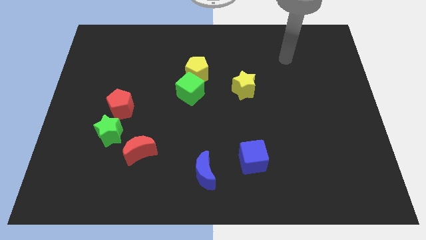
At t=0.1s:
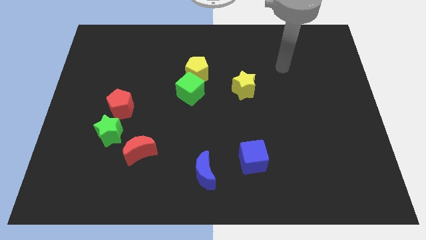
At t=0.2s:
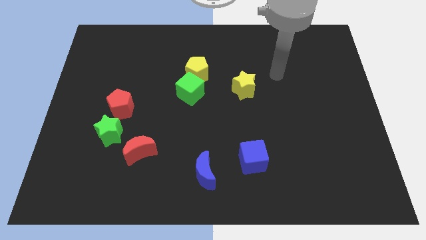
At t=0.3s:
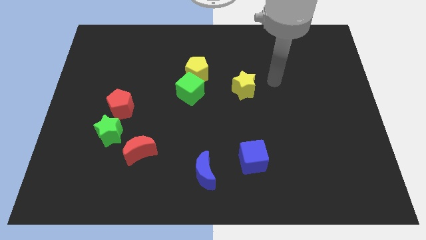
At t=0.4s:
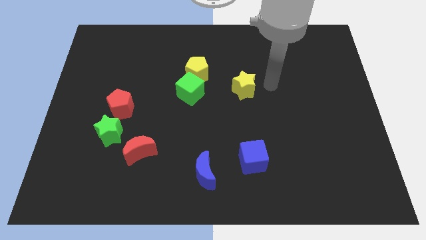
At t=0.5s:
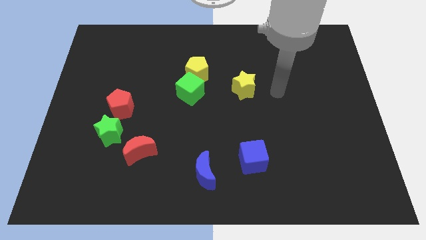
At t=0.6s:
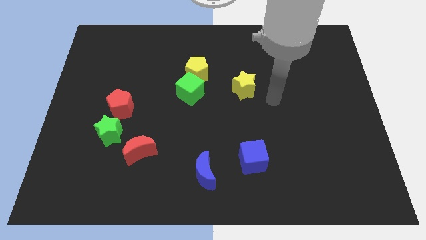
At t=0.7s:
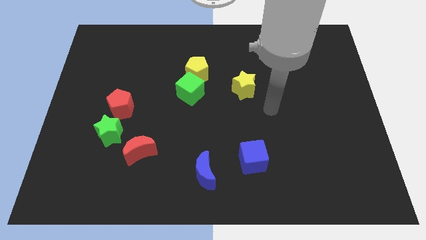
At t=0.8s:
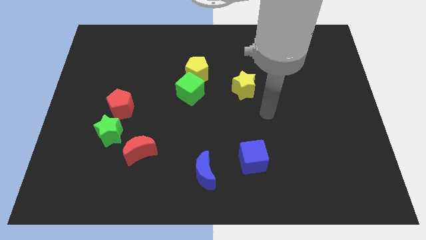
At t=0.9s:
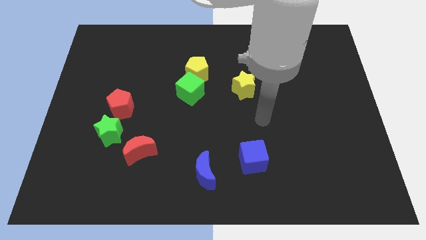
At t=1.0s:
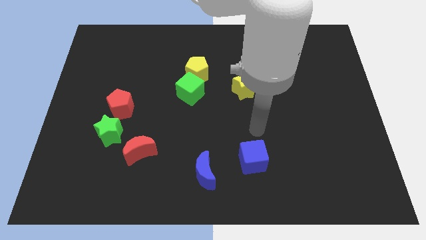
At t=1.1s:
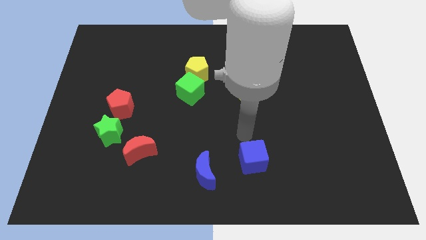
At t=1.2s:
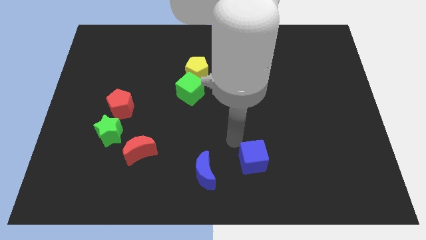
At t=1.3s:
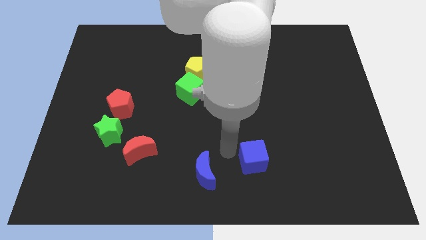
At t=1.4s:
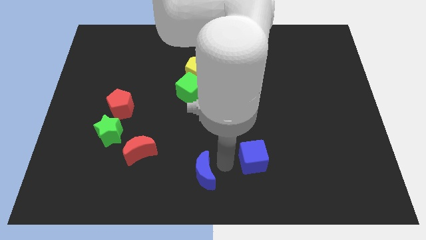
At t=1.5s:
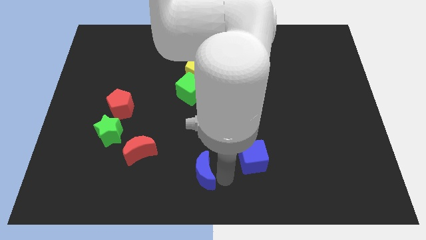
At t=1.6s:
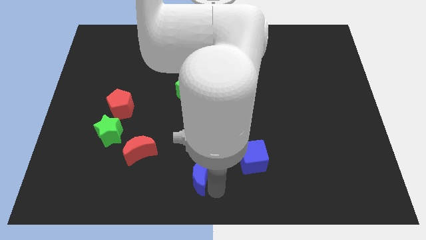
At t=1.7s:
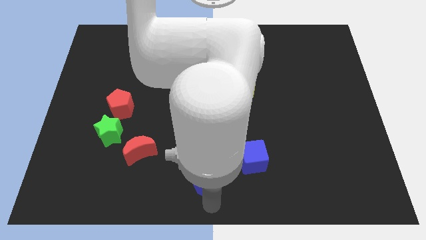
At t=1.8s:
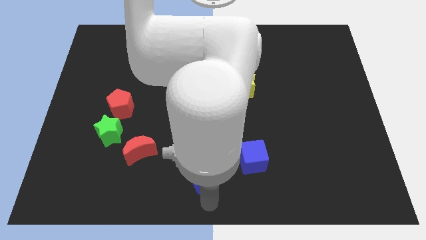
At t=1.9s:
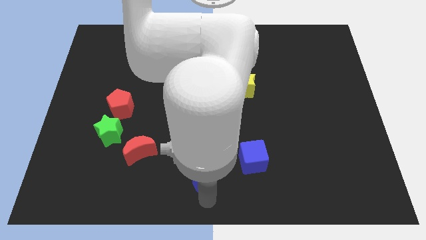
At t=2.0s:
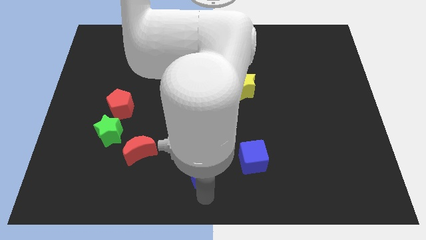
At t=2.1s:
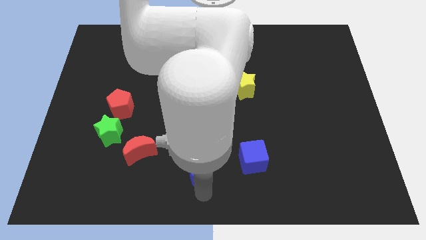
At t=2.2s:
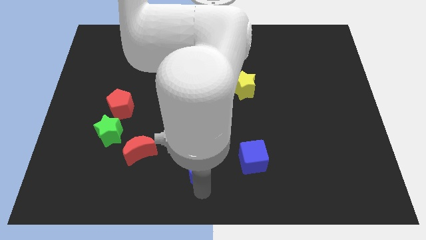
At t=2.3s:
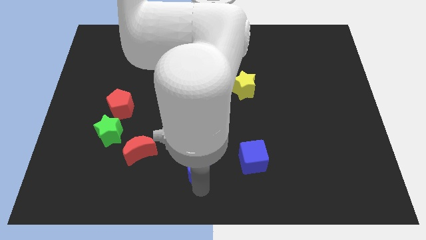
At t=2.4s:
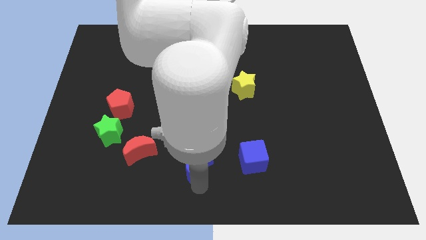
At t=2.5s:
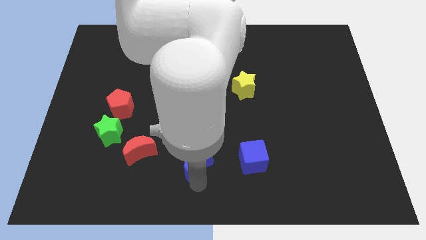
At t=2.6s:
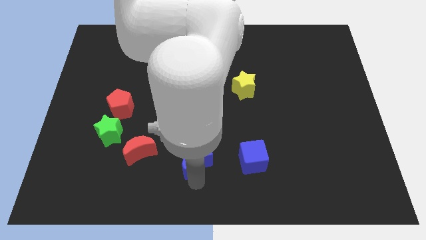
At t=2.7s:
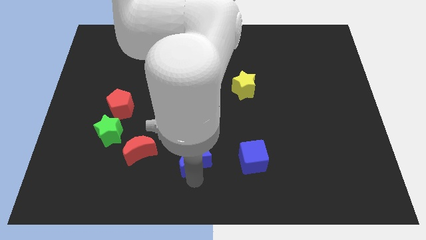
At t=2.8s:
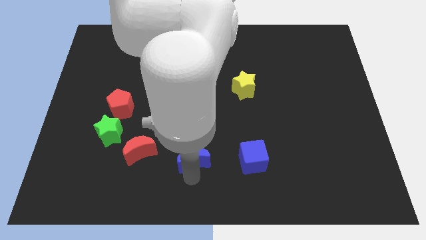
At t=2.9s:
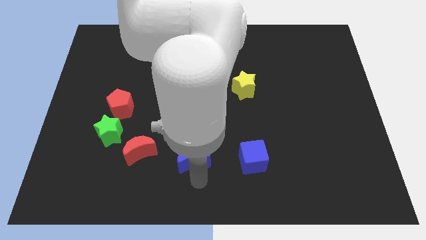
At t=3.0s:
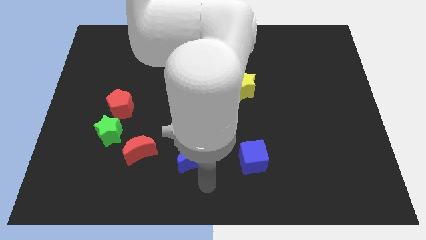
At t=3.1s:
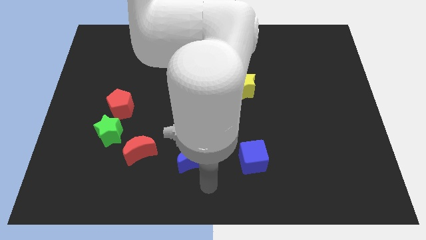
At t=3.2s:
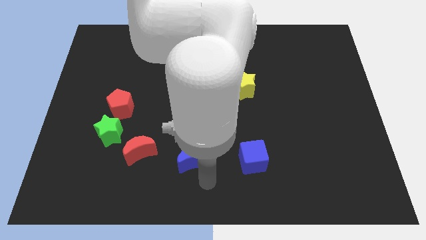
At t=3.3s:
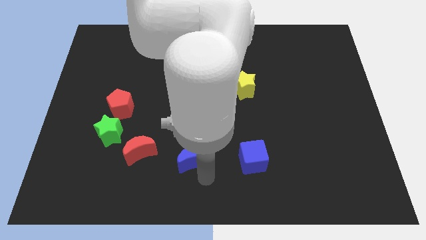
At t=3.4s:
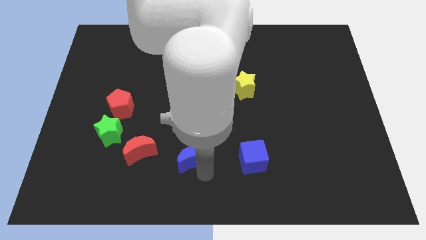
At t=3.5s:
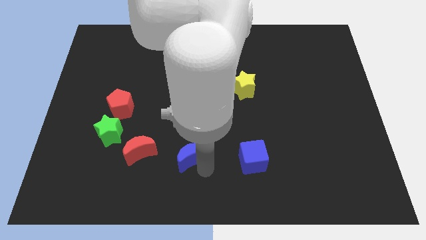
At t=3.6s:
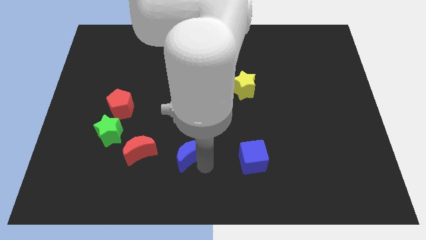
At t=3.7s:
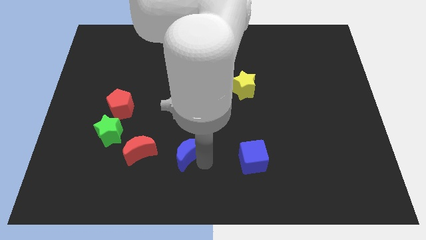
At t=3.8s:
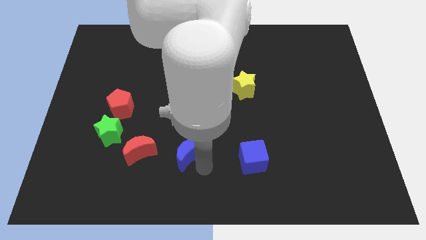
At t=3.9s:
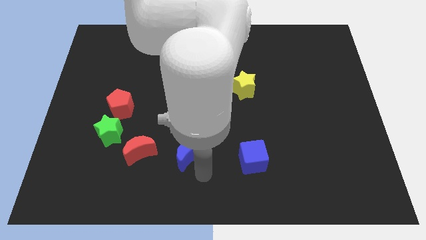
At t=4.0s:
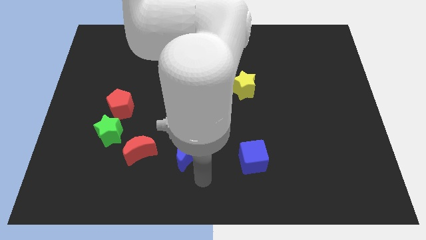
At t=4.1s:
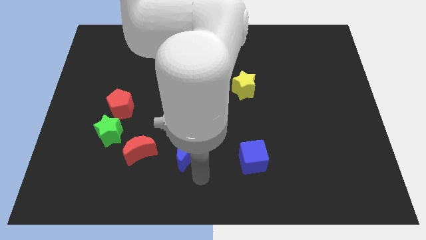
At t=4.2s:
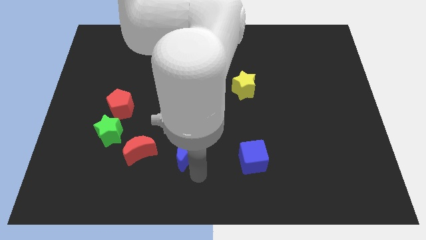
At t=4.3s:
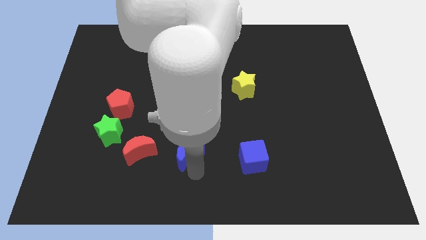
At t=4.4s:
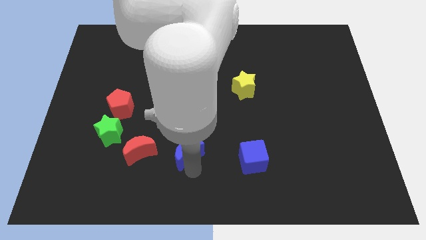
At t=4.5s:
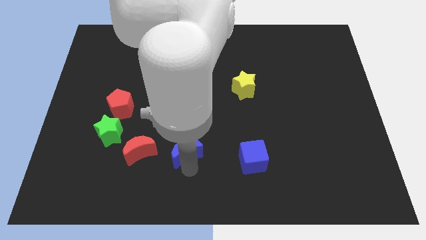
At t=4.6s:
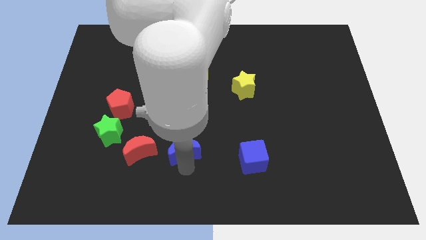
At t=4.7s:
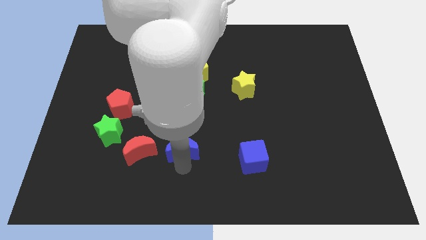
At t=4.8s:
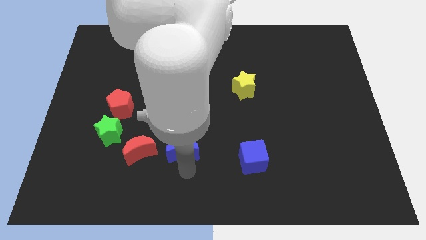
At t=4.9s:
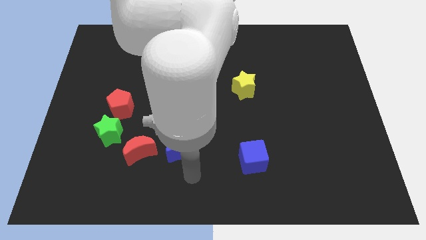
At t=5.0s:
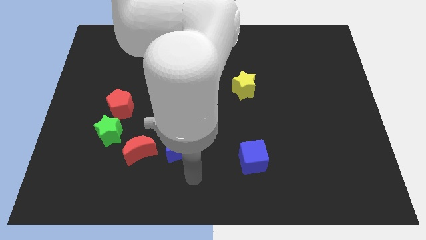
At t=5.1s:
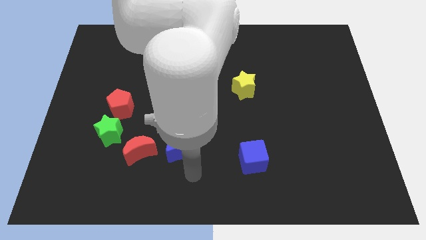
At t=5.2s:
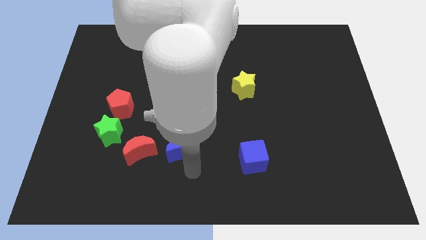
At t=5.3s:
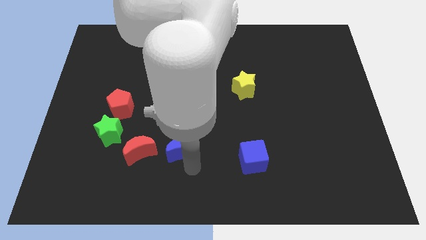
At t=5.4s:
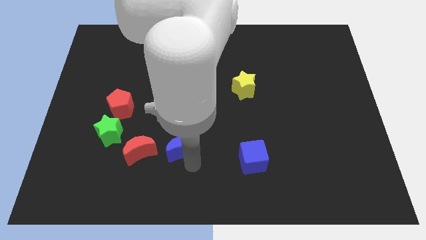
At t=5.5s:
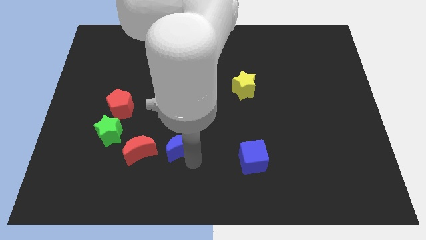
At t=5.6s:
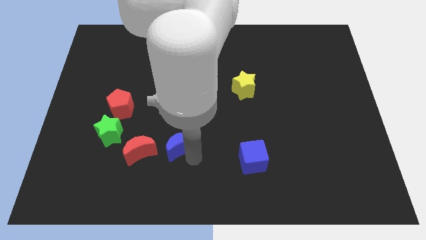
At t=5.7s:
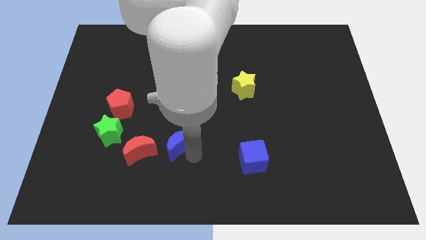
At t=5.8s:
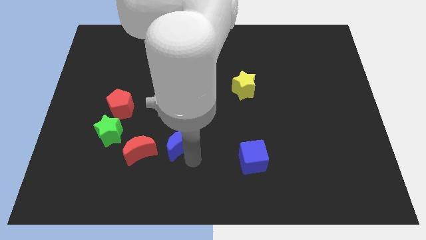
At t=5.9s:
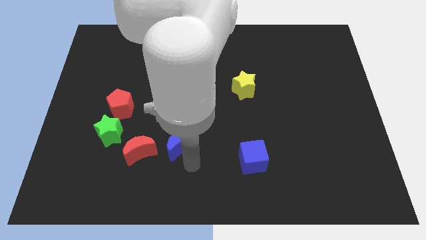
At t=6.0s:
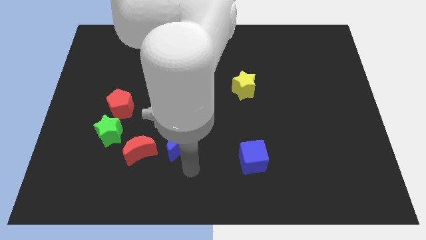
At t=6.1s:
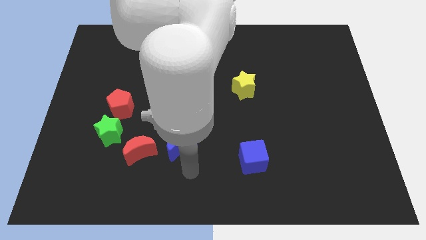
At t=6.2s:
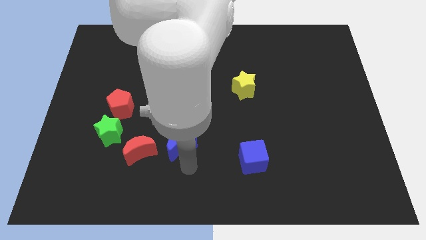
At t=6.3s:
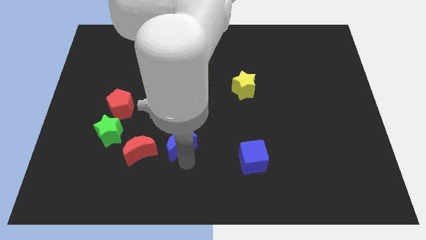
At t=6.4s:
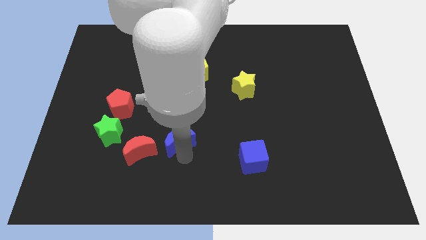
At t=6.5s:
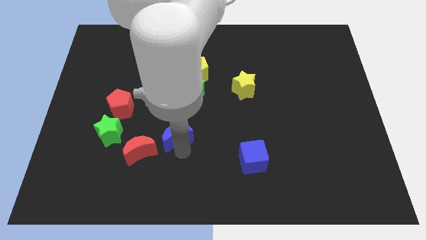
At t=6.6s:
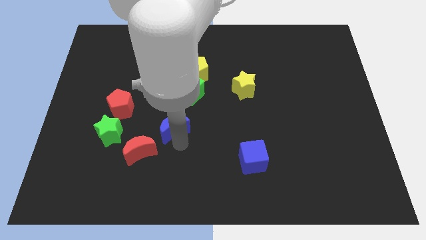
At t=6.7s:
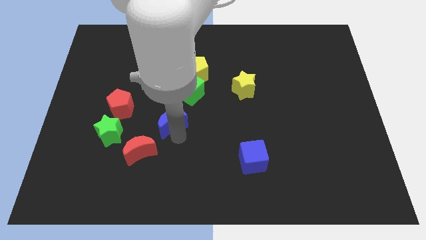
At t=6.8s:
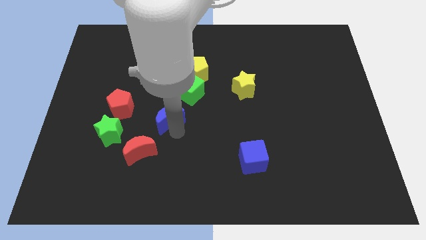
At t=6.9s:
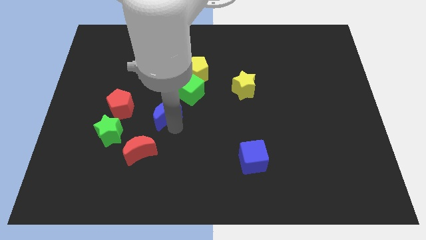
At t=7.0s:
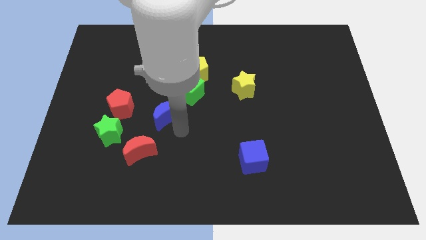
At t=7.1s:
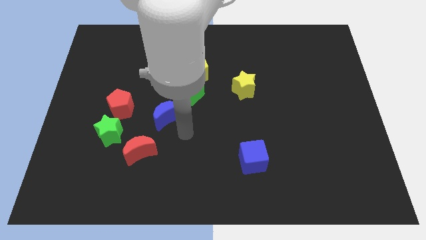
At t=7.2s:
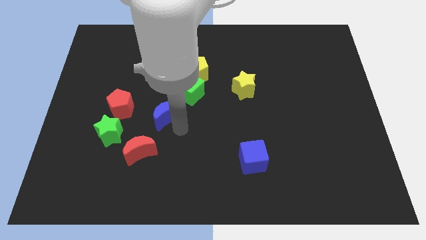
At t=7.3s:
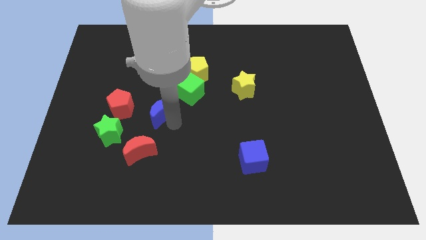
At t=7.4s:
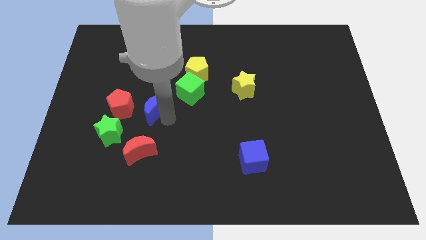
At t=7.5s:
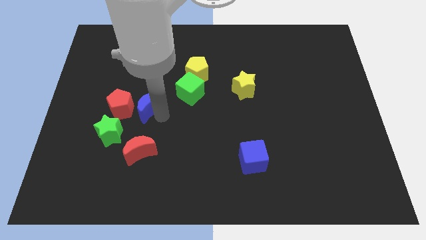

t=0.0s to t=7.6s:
move the blue moon upwards and then to the left
